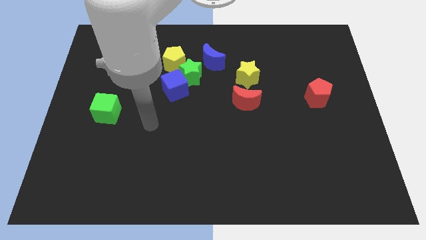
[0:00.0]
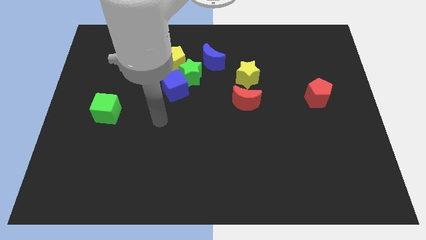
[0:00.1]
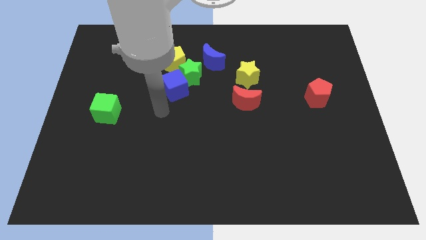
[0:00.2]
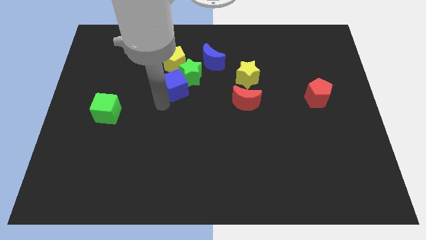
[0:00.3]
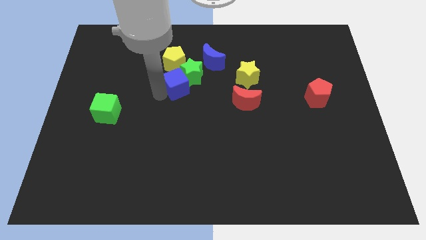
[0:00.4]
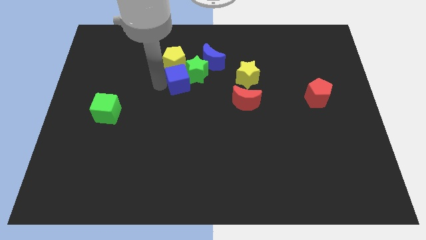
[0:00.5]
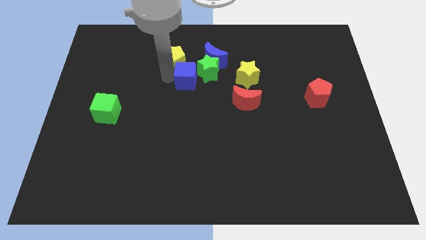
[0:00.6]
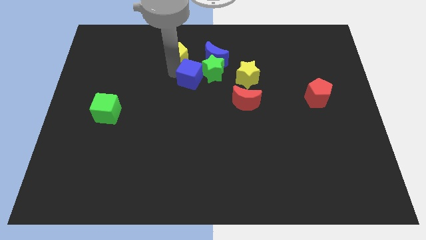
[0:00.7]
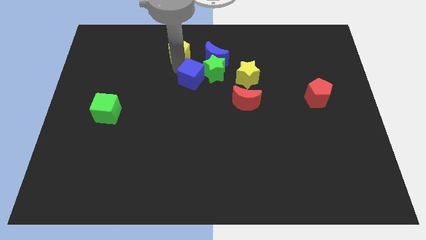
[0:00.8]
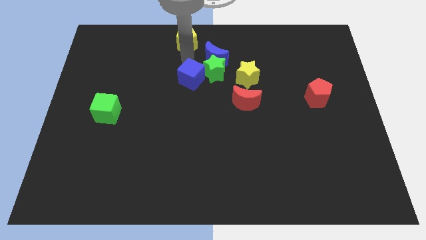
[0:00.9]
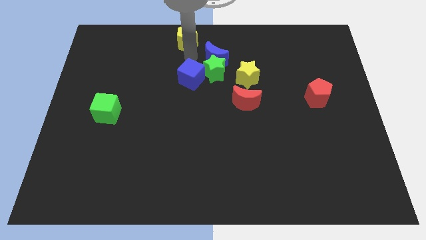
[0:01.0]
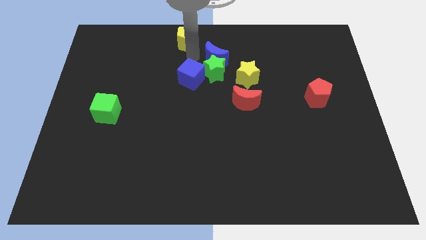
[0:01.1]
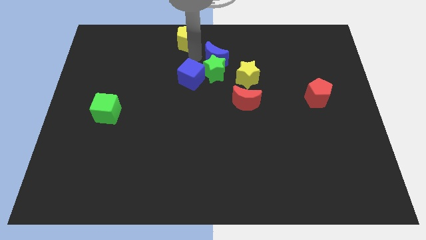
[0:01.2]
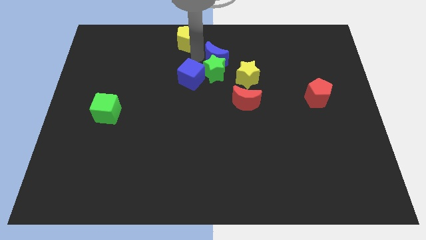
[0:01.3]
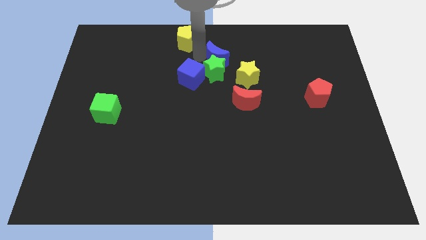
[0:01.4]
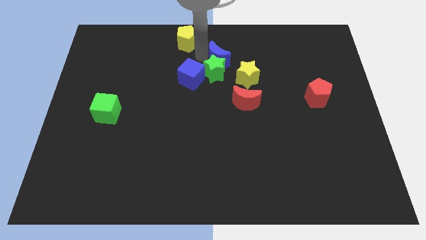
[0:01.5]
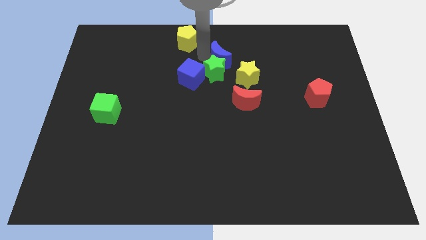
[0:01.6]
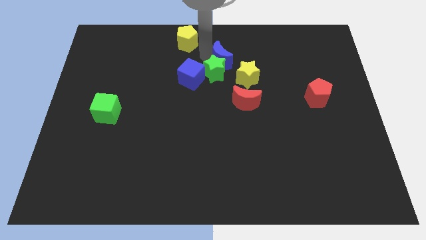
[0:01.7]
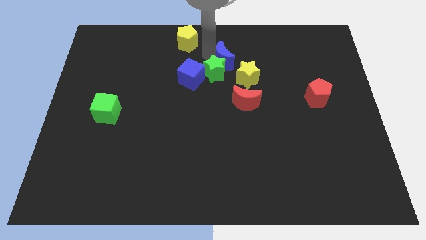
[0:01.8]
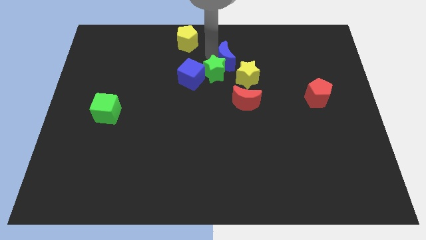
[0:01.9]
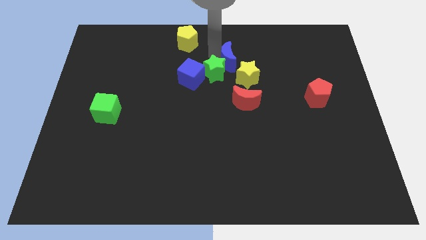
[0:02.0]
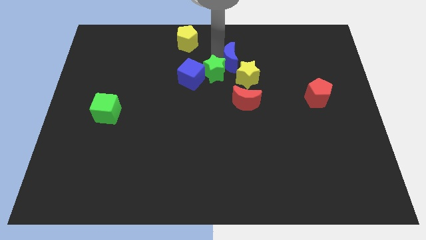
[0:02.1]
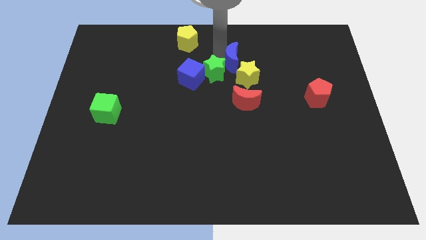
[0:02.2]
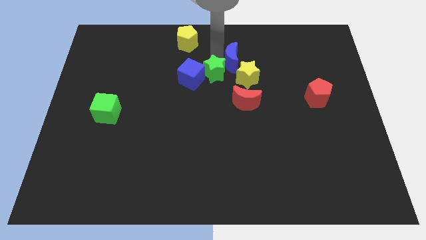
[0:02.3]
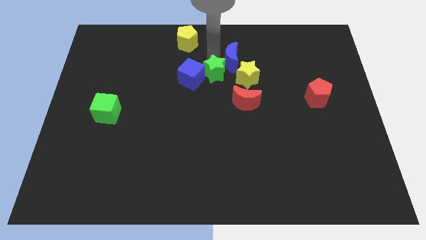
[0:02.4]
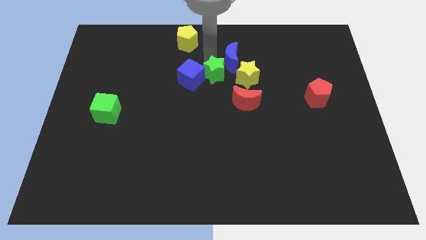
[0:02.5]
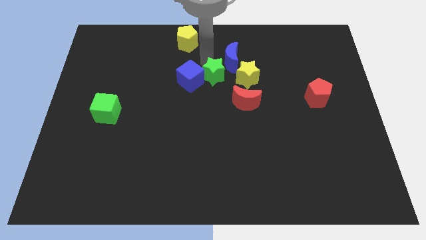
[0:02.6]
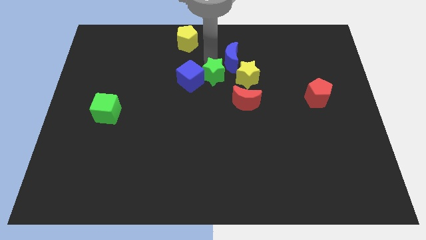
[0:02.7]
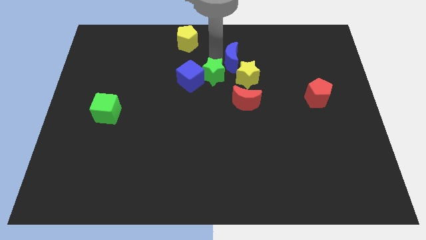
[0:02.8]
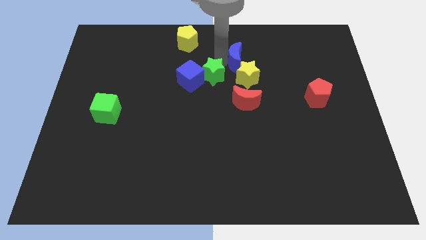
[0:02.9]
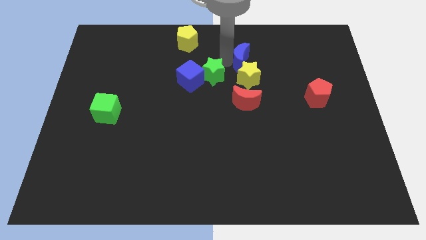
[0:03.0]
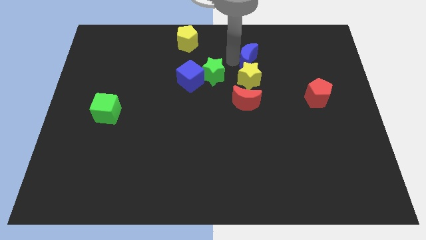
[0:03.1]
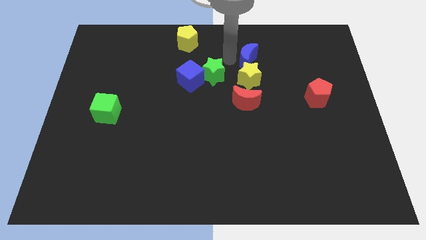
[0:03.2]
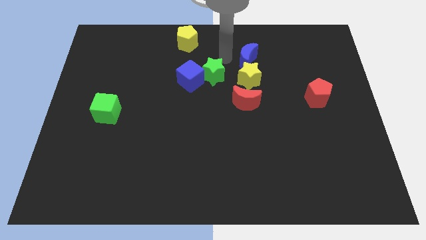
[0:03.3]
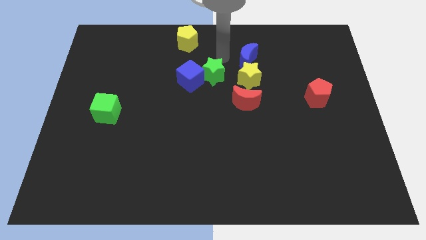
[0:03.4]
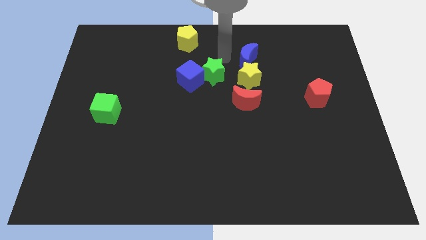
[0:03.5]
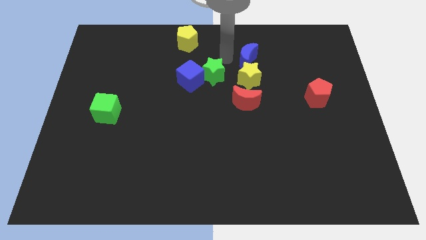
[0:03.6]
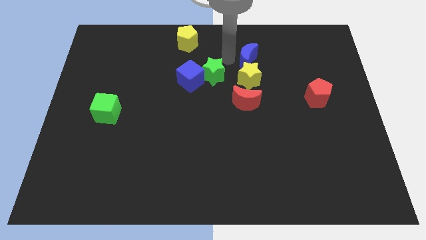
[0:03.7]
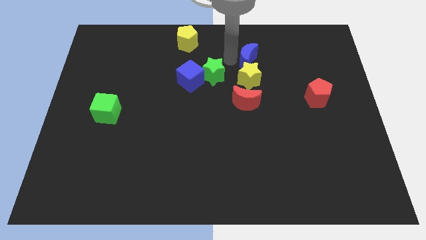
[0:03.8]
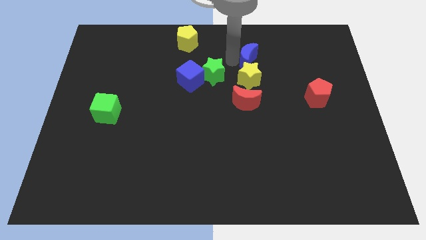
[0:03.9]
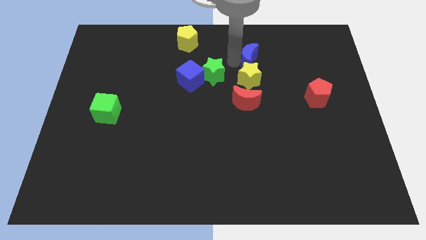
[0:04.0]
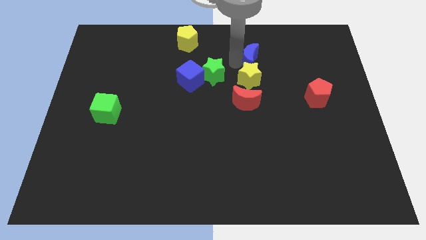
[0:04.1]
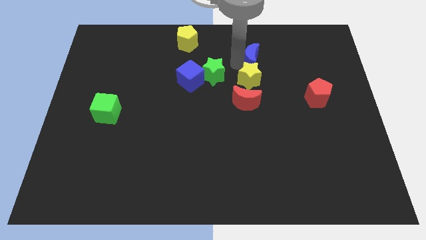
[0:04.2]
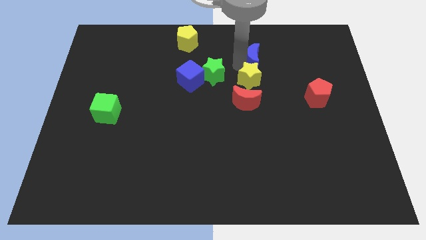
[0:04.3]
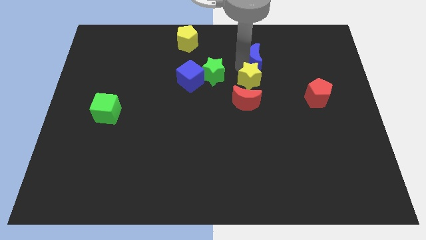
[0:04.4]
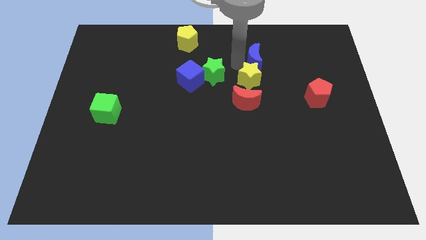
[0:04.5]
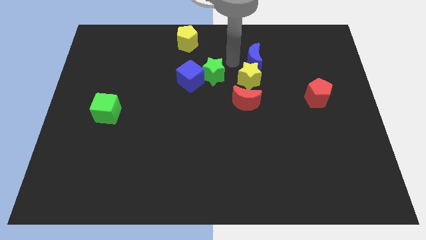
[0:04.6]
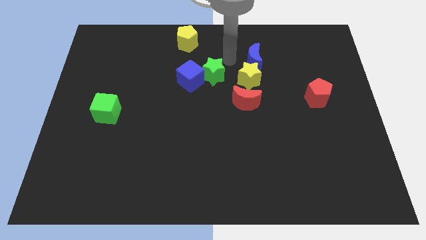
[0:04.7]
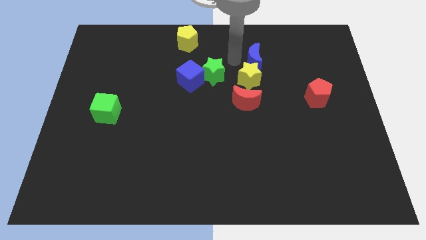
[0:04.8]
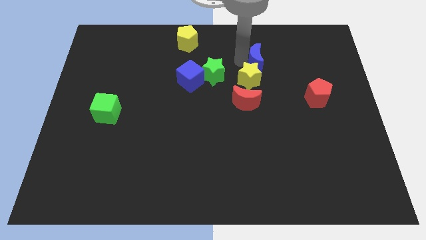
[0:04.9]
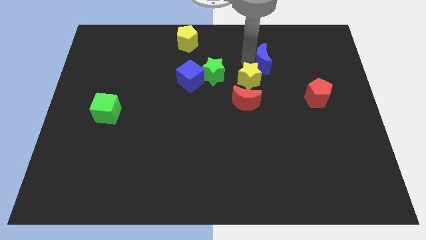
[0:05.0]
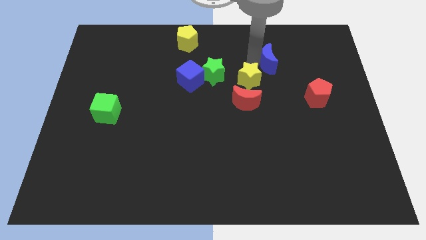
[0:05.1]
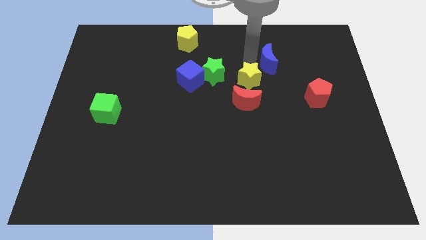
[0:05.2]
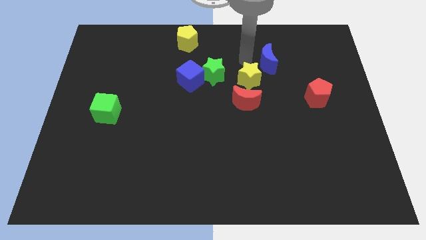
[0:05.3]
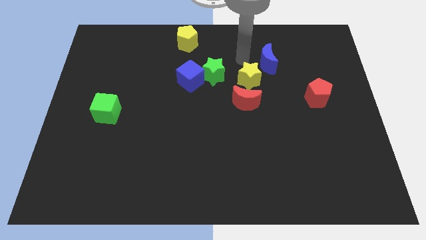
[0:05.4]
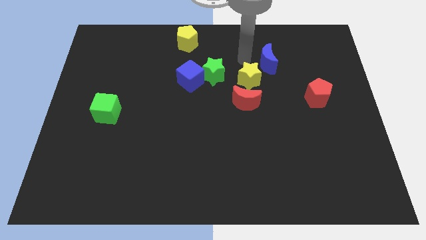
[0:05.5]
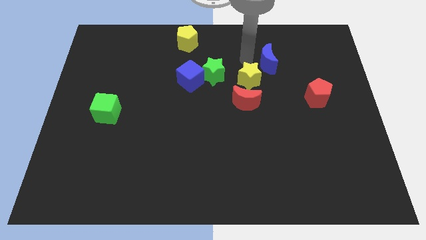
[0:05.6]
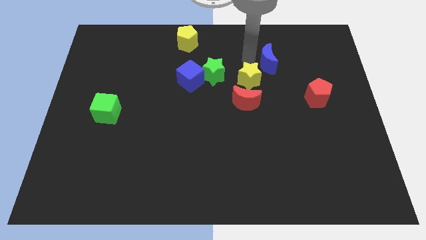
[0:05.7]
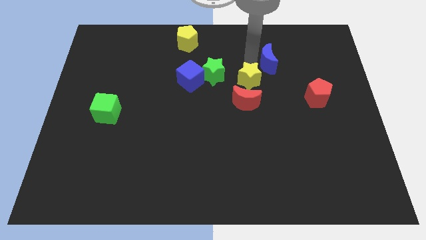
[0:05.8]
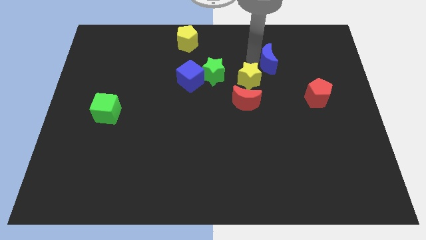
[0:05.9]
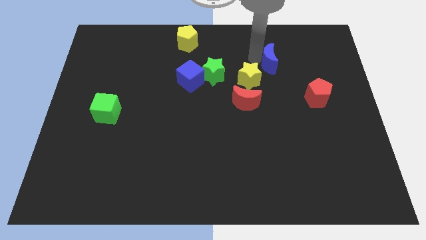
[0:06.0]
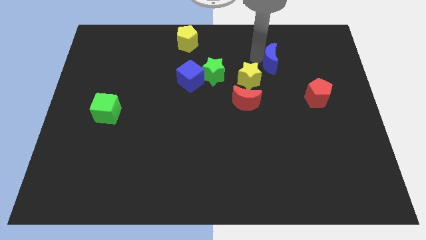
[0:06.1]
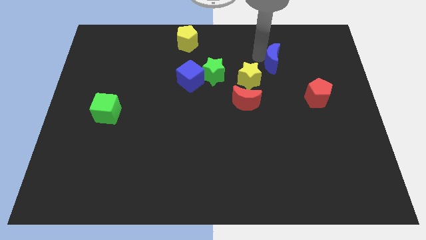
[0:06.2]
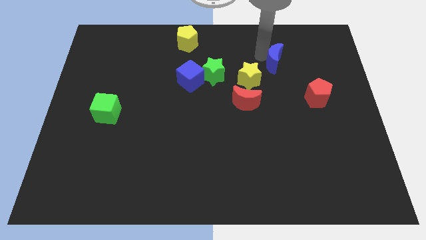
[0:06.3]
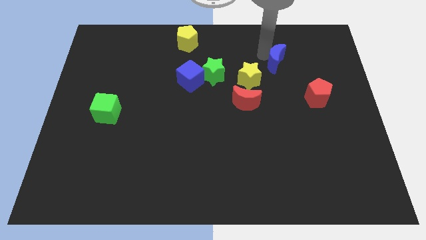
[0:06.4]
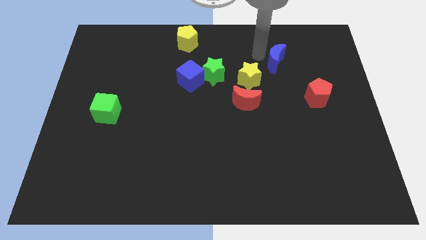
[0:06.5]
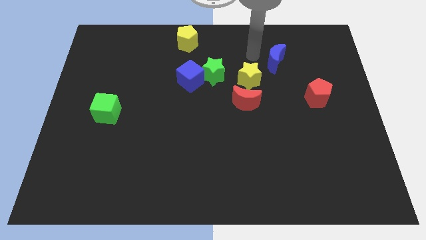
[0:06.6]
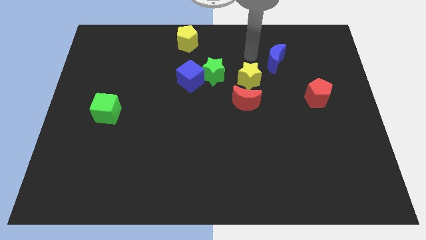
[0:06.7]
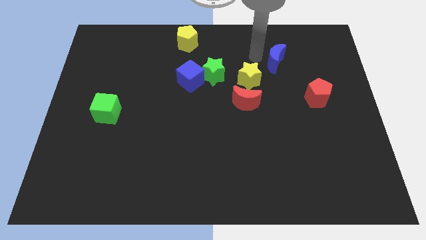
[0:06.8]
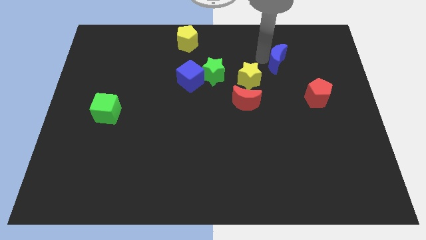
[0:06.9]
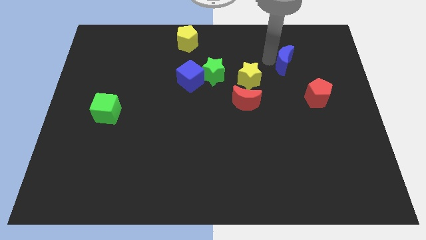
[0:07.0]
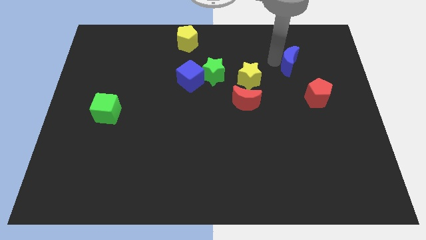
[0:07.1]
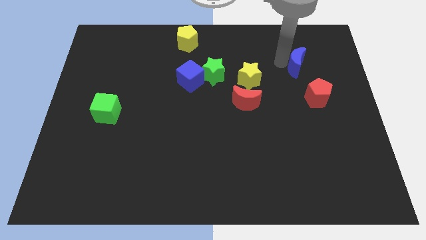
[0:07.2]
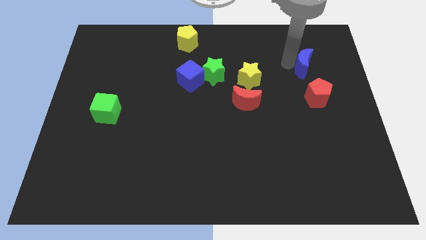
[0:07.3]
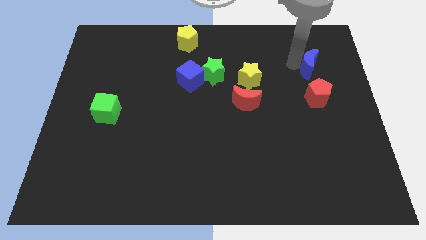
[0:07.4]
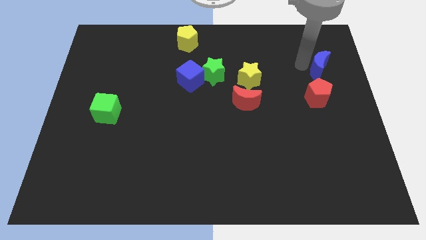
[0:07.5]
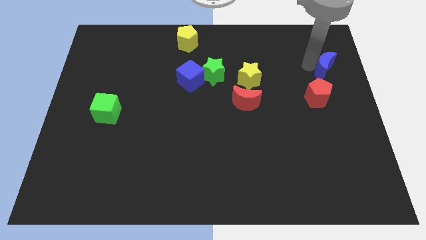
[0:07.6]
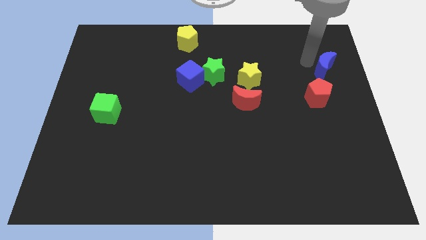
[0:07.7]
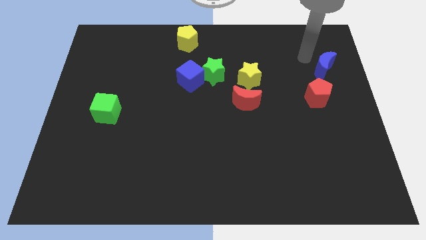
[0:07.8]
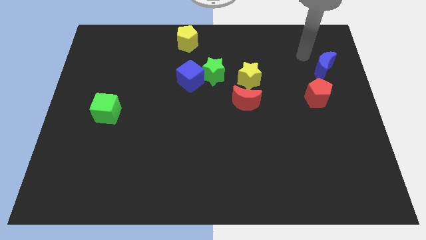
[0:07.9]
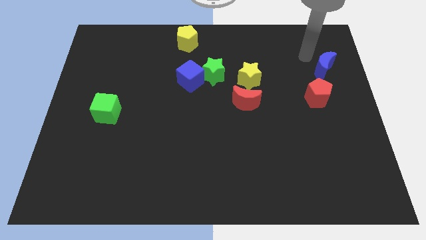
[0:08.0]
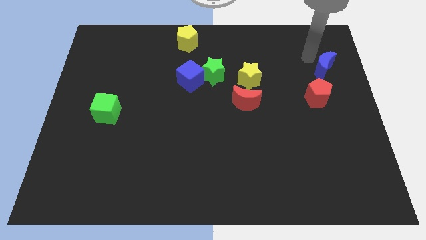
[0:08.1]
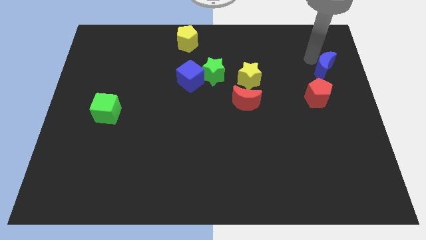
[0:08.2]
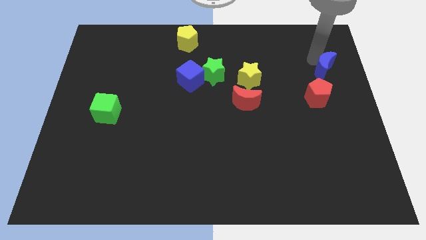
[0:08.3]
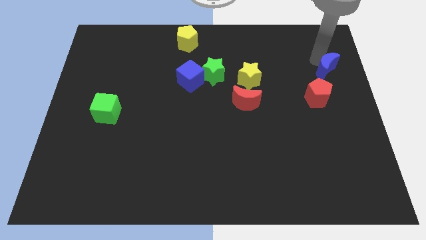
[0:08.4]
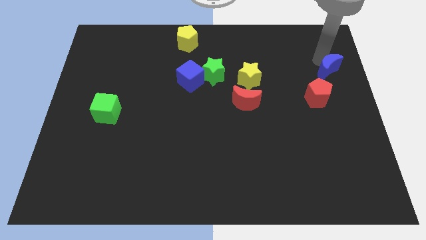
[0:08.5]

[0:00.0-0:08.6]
slide the blue moon to the right side of the board
